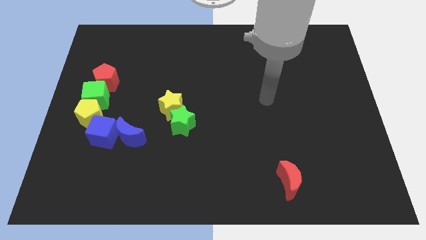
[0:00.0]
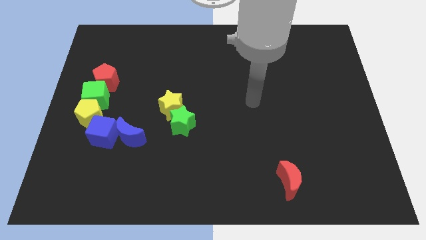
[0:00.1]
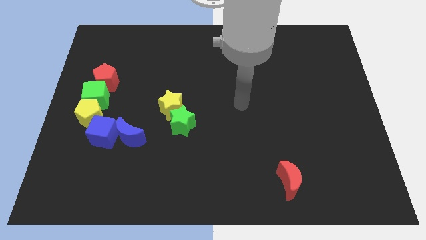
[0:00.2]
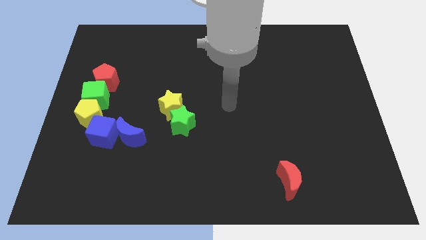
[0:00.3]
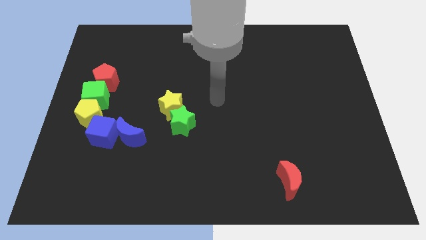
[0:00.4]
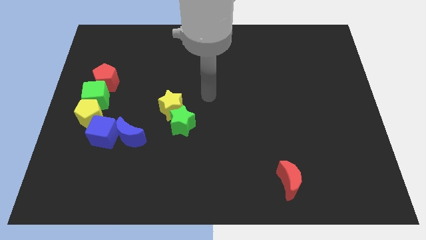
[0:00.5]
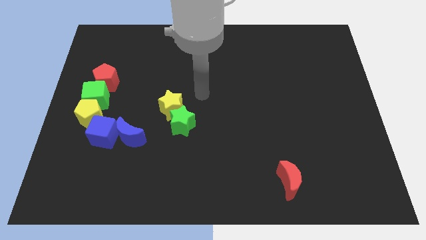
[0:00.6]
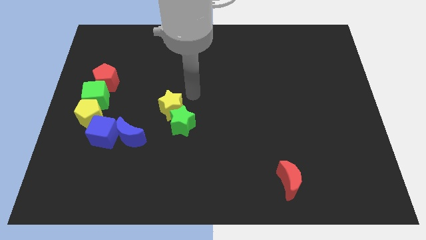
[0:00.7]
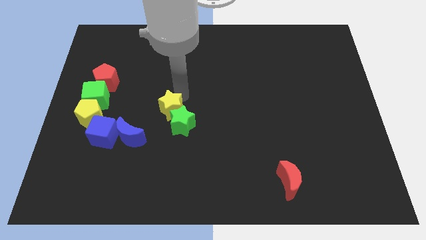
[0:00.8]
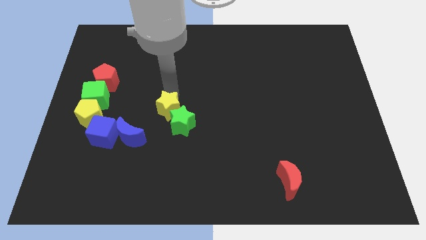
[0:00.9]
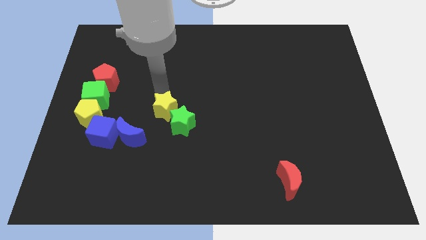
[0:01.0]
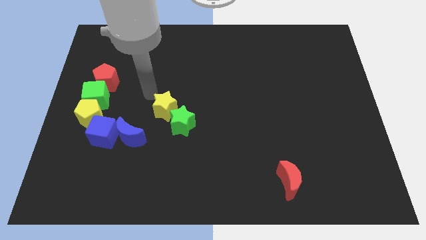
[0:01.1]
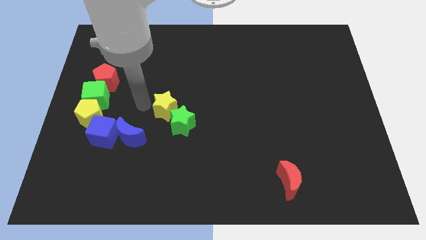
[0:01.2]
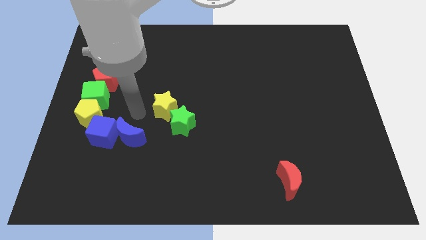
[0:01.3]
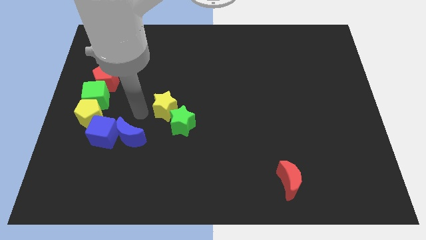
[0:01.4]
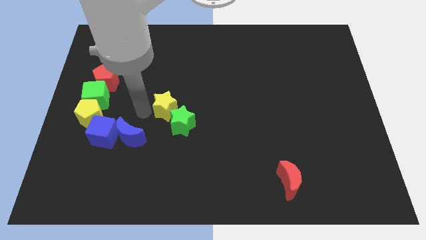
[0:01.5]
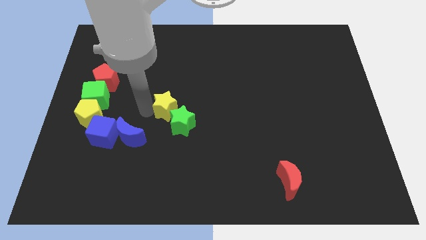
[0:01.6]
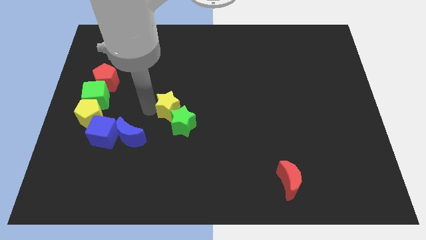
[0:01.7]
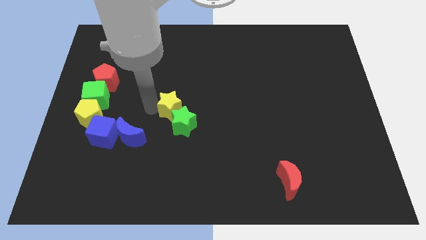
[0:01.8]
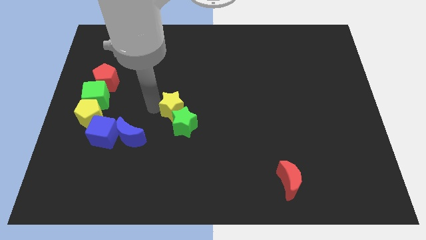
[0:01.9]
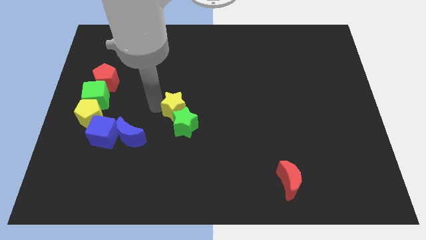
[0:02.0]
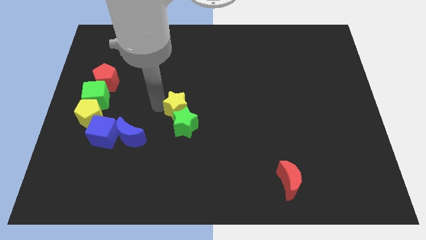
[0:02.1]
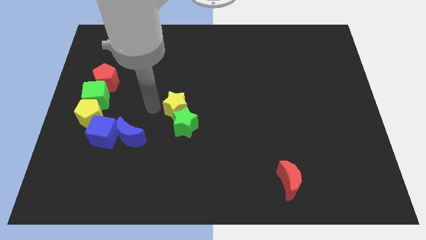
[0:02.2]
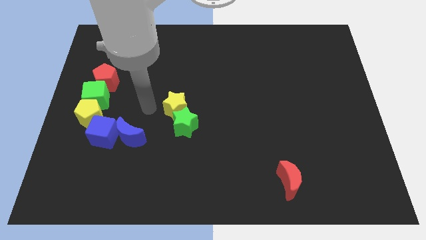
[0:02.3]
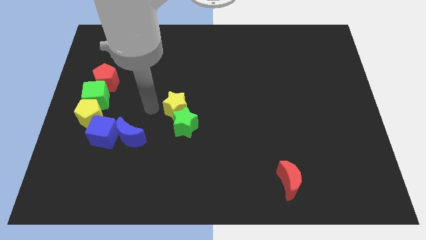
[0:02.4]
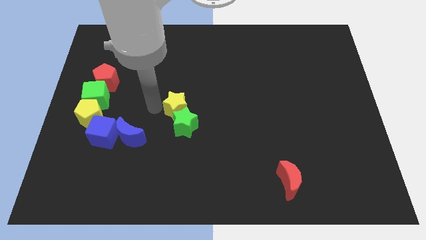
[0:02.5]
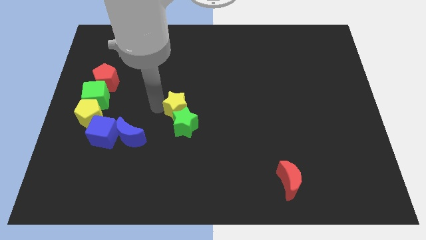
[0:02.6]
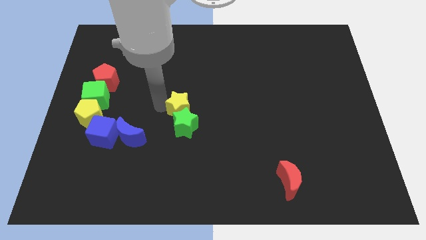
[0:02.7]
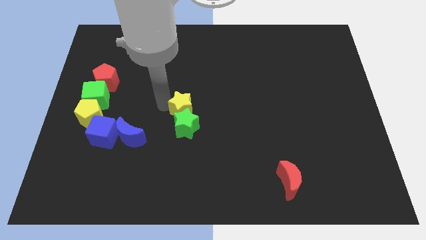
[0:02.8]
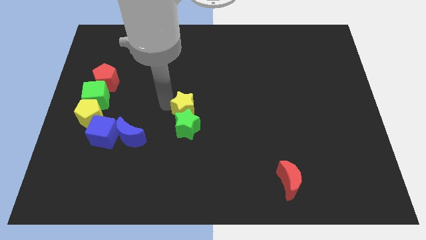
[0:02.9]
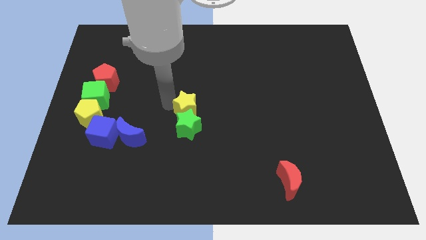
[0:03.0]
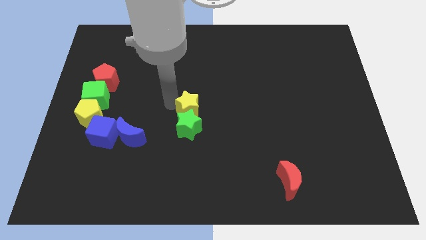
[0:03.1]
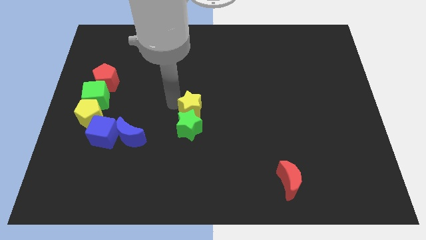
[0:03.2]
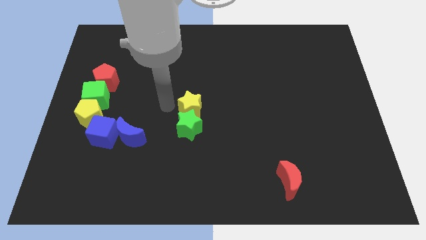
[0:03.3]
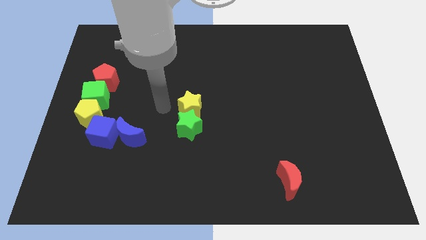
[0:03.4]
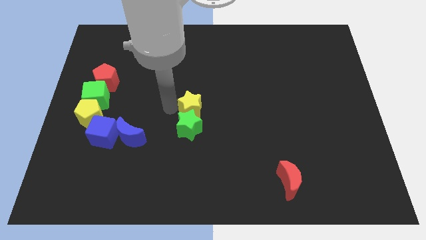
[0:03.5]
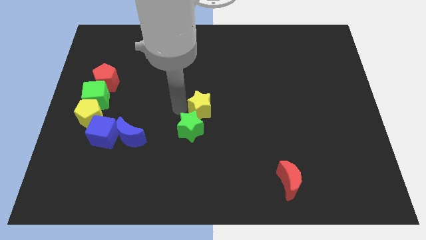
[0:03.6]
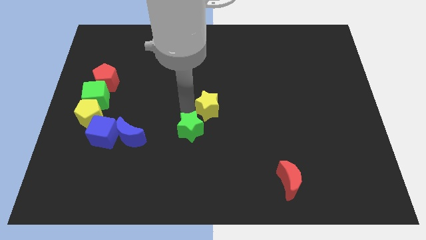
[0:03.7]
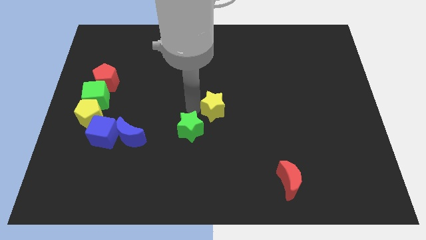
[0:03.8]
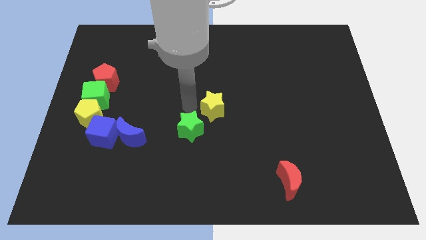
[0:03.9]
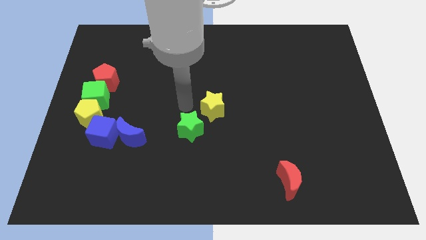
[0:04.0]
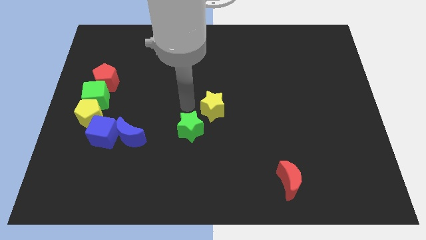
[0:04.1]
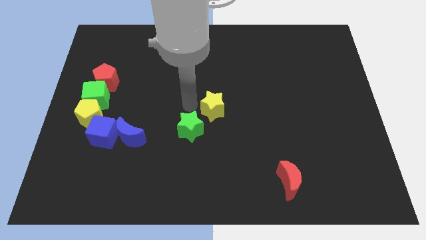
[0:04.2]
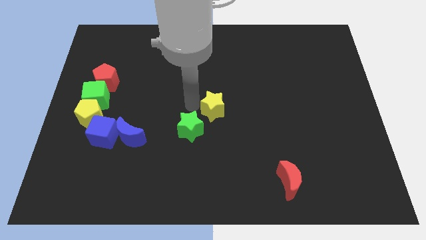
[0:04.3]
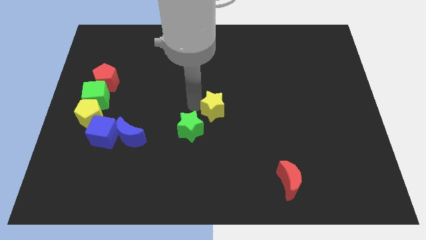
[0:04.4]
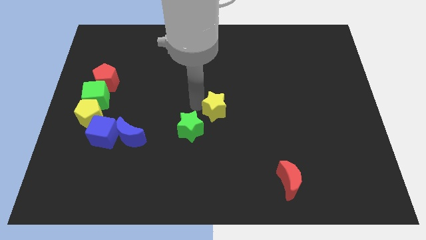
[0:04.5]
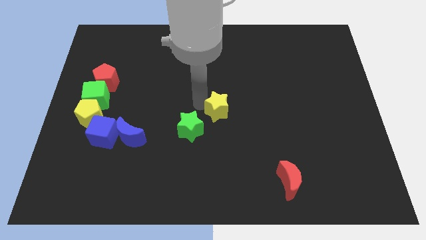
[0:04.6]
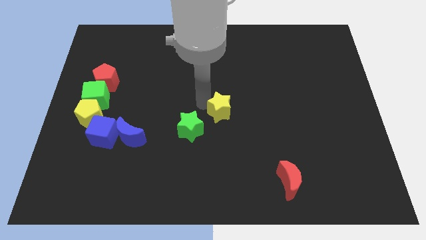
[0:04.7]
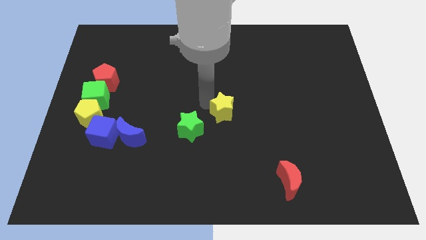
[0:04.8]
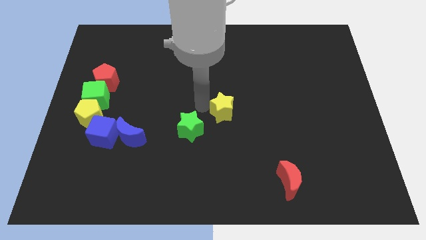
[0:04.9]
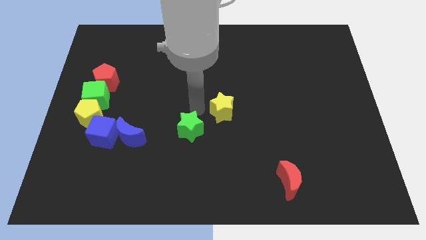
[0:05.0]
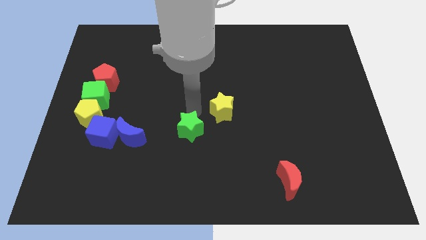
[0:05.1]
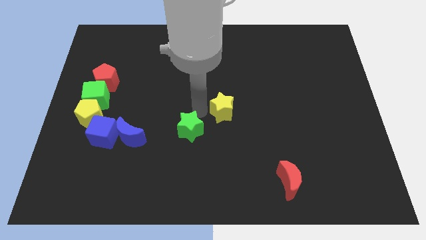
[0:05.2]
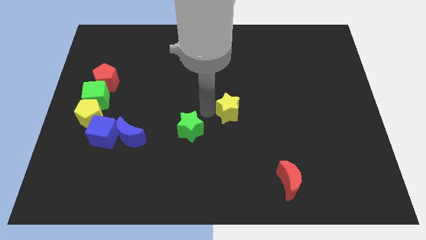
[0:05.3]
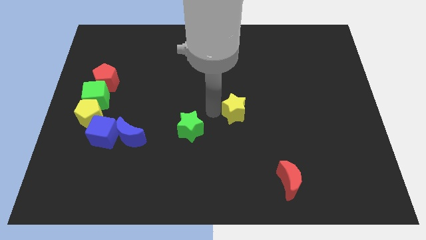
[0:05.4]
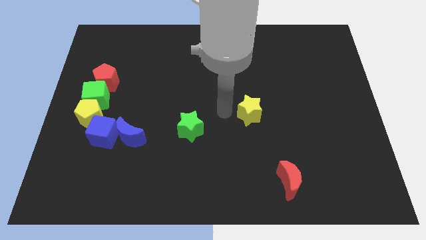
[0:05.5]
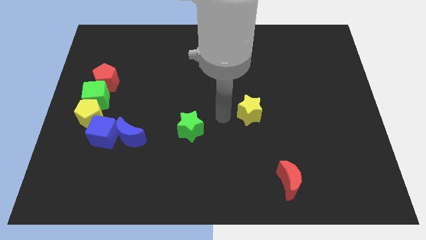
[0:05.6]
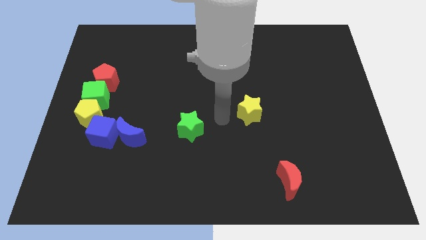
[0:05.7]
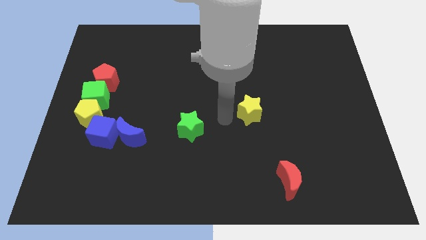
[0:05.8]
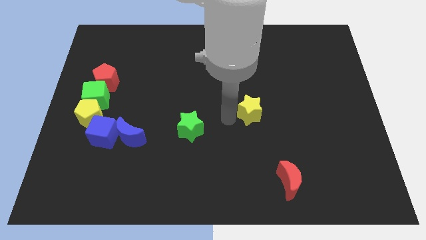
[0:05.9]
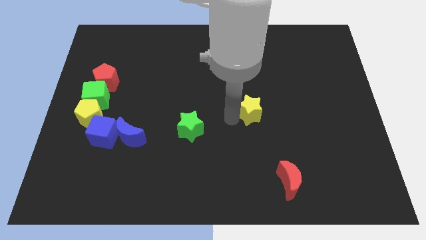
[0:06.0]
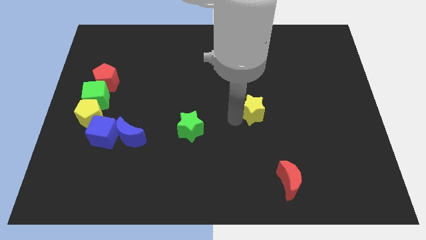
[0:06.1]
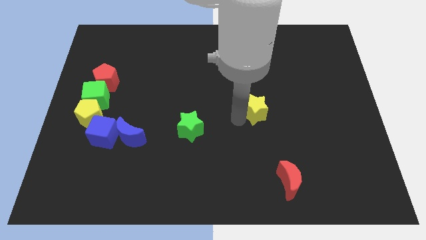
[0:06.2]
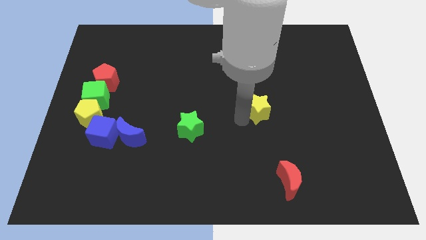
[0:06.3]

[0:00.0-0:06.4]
push the yellow star right

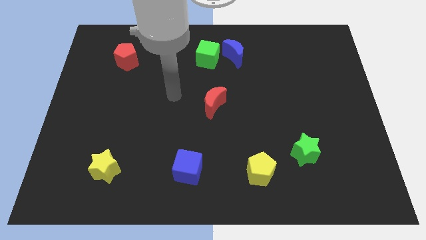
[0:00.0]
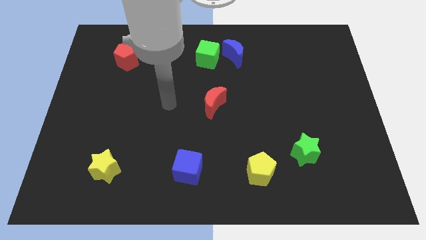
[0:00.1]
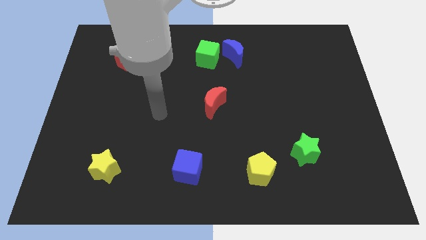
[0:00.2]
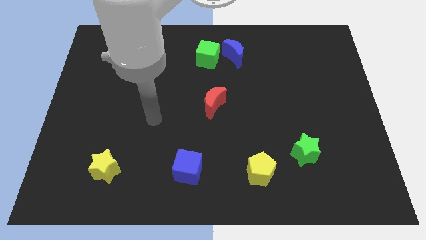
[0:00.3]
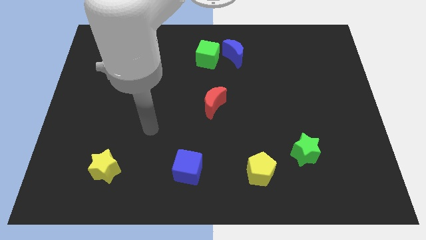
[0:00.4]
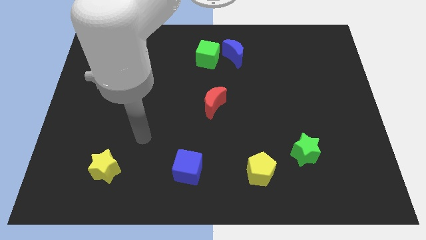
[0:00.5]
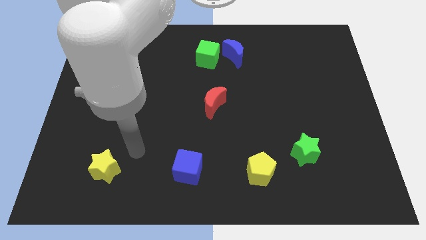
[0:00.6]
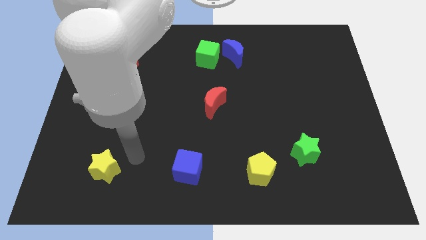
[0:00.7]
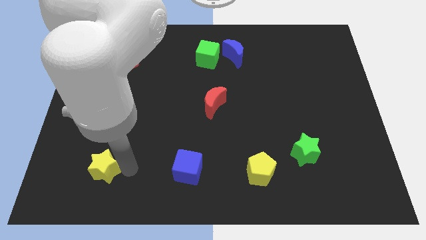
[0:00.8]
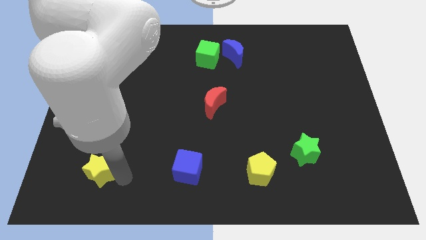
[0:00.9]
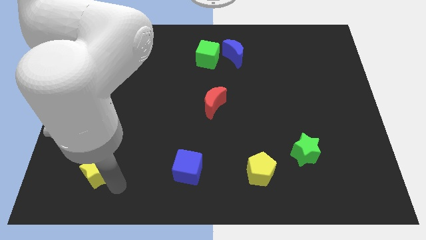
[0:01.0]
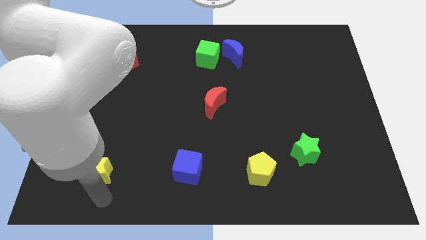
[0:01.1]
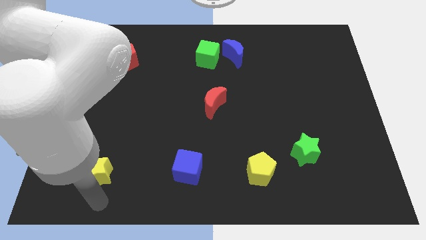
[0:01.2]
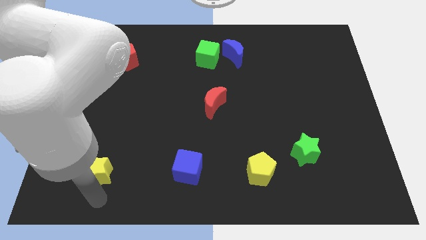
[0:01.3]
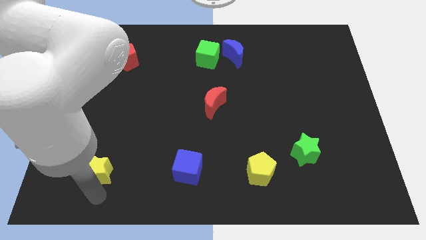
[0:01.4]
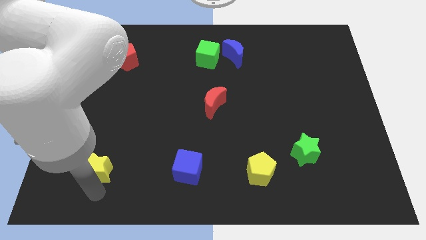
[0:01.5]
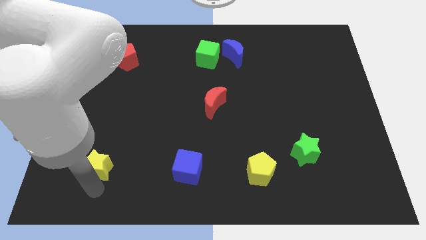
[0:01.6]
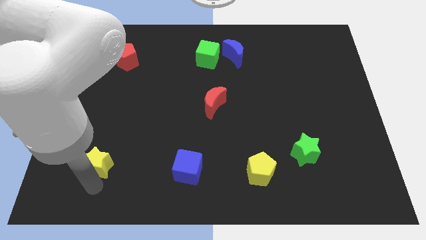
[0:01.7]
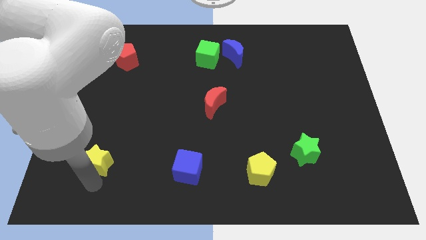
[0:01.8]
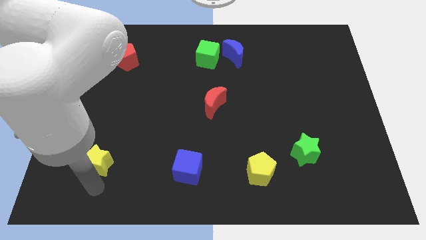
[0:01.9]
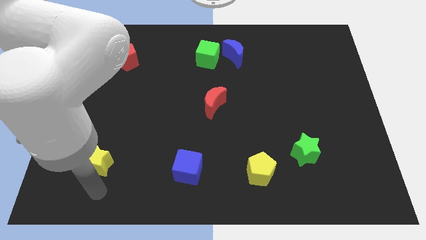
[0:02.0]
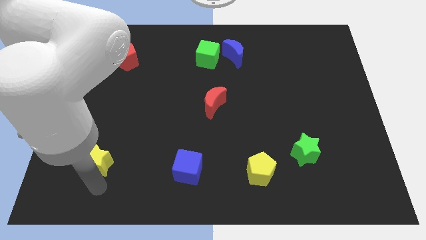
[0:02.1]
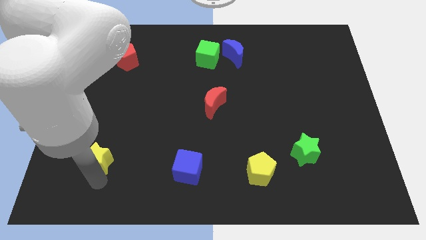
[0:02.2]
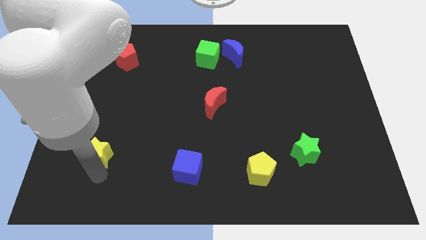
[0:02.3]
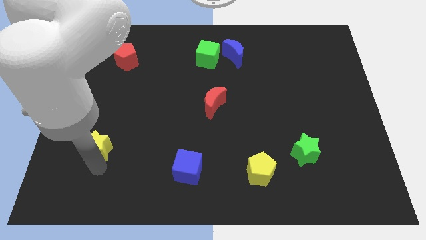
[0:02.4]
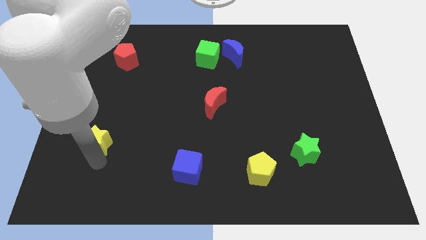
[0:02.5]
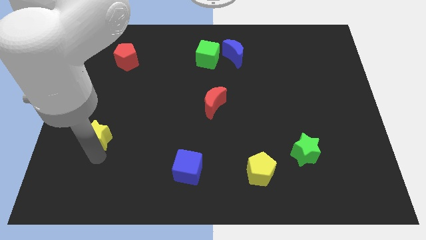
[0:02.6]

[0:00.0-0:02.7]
slightly move the yellow star up
